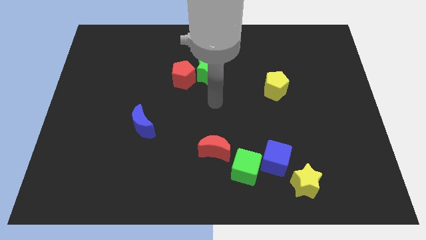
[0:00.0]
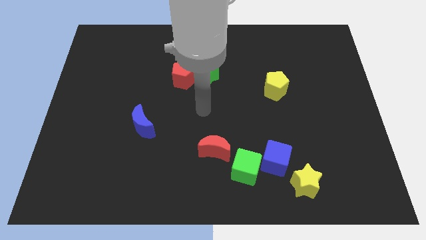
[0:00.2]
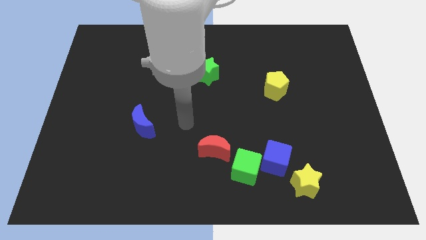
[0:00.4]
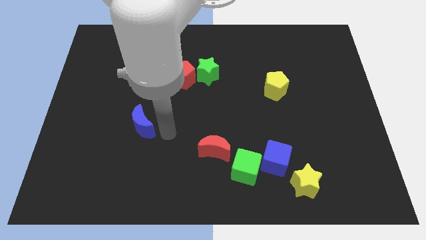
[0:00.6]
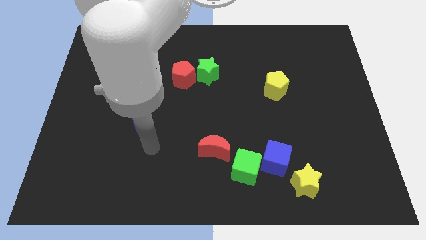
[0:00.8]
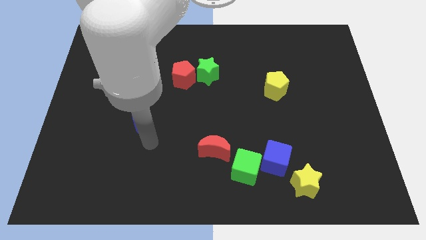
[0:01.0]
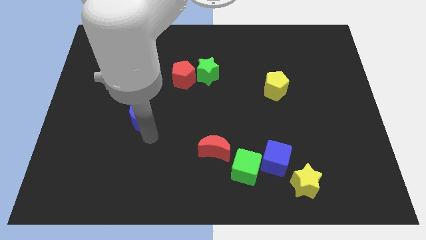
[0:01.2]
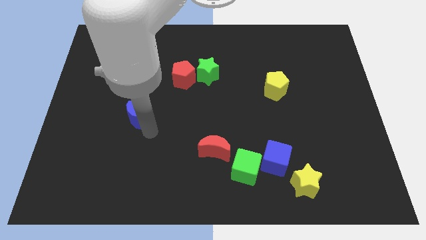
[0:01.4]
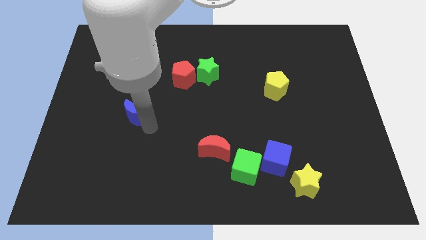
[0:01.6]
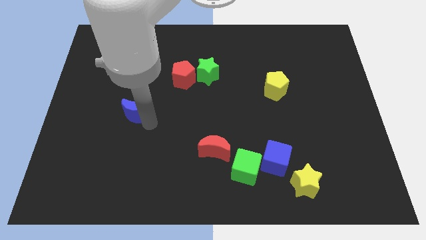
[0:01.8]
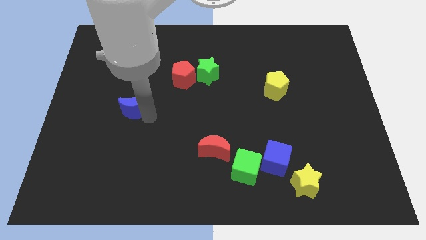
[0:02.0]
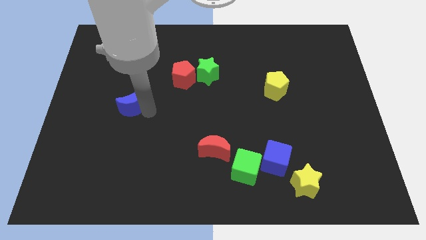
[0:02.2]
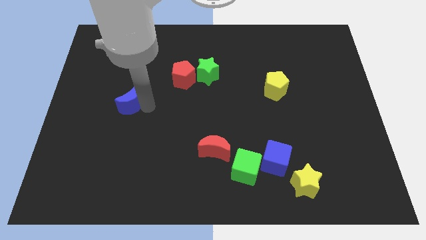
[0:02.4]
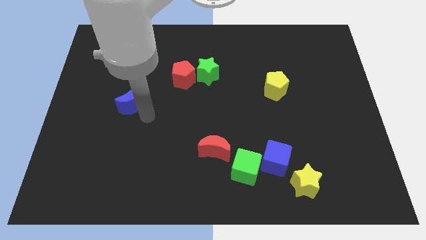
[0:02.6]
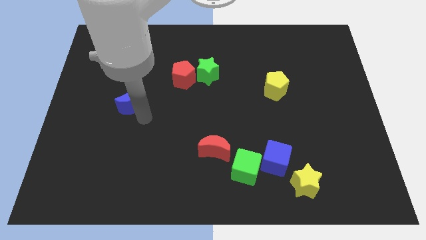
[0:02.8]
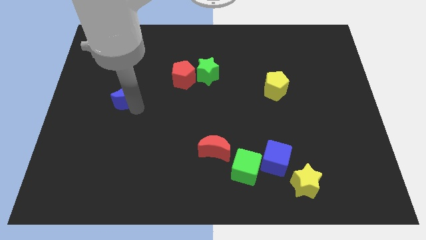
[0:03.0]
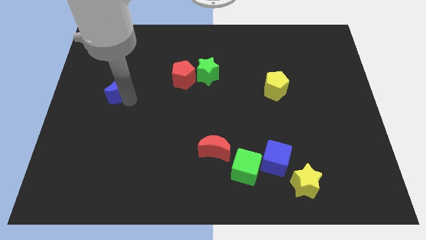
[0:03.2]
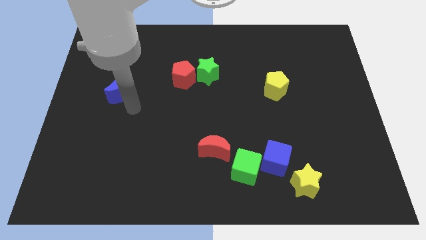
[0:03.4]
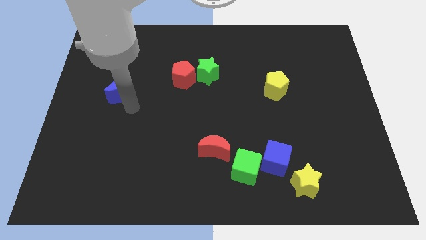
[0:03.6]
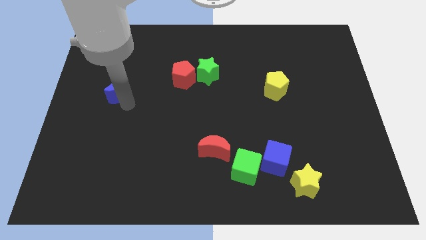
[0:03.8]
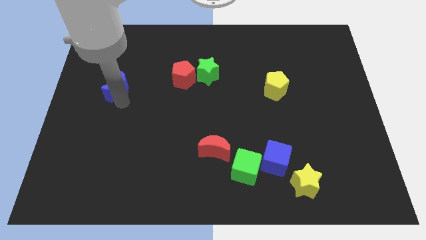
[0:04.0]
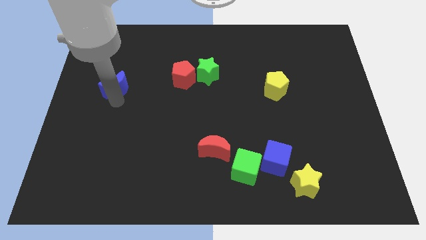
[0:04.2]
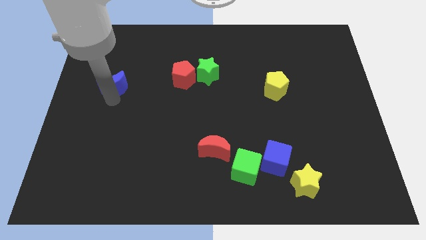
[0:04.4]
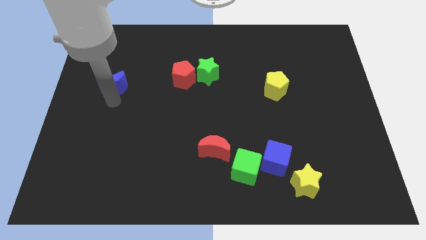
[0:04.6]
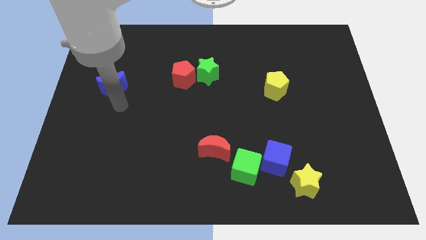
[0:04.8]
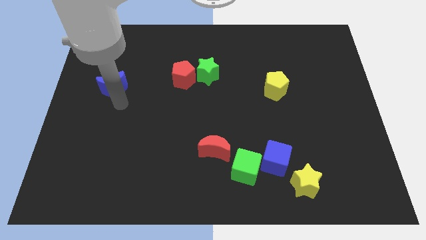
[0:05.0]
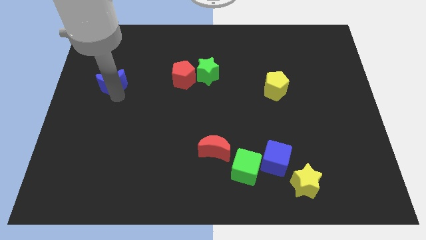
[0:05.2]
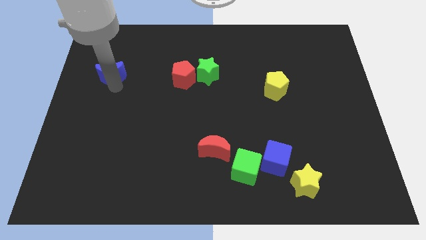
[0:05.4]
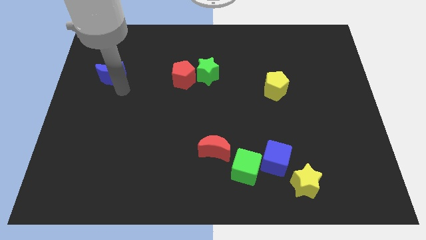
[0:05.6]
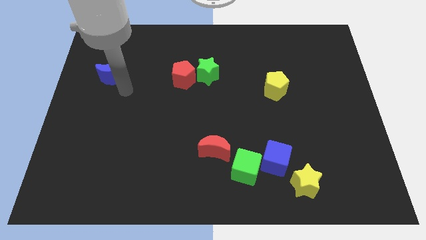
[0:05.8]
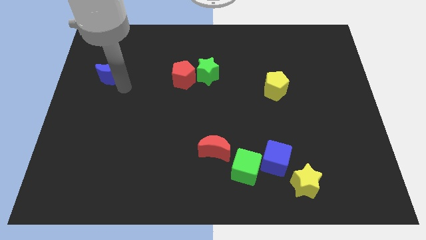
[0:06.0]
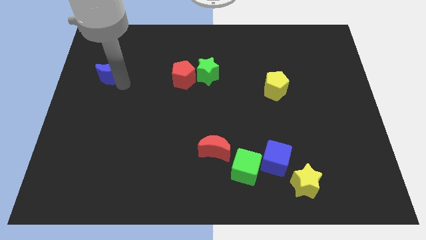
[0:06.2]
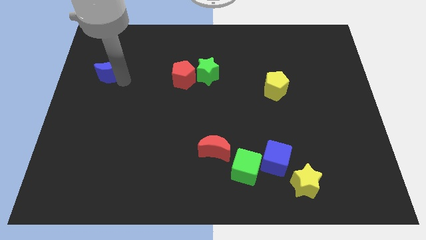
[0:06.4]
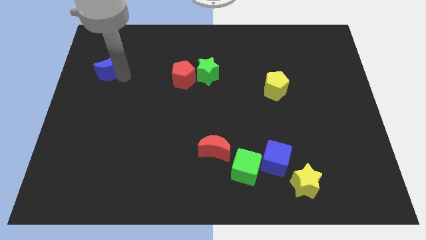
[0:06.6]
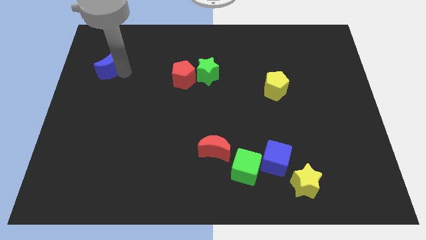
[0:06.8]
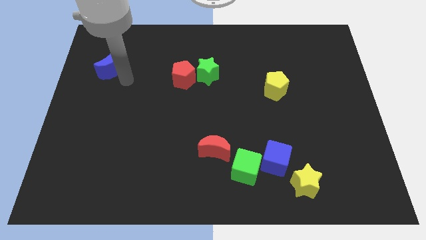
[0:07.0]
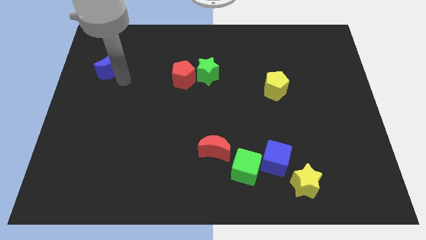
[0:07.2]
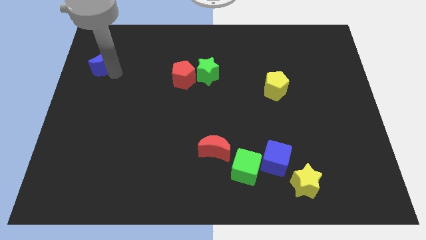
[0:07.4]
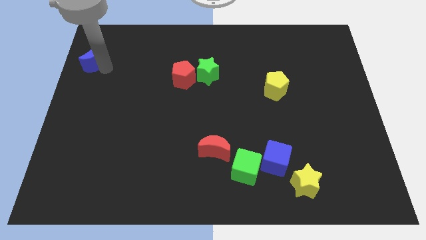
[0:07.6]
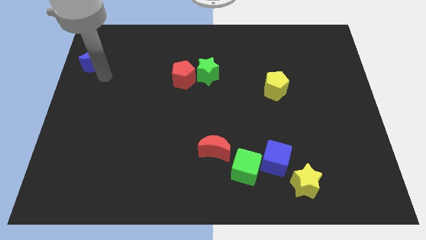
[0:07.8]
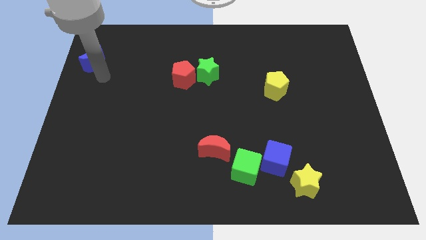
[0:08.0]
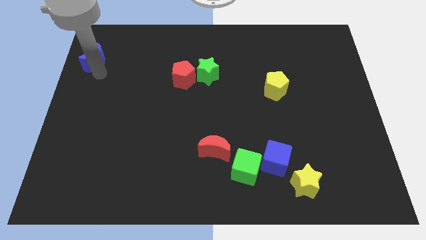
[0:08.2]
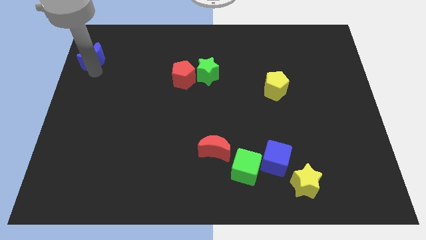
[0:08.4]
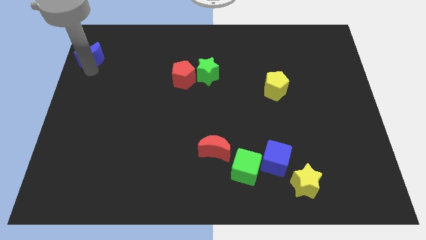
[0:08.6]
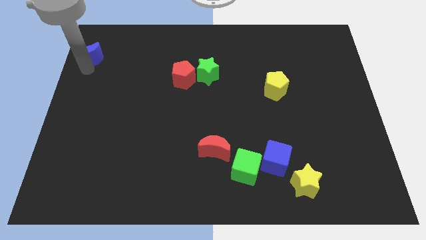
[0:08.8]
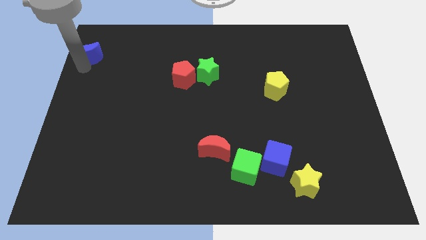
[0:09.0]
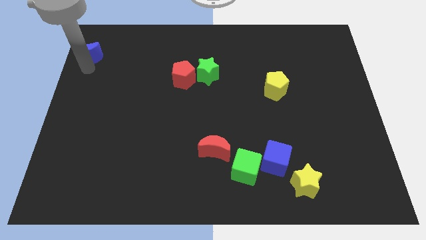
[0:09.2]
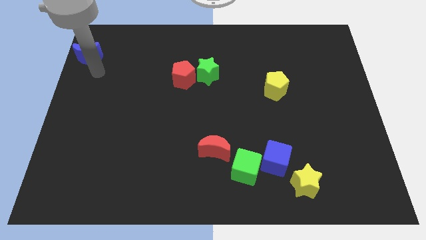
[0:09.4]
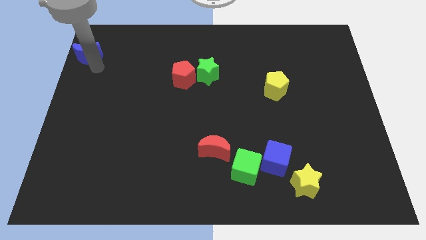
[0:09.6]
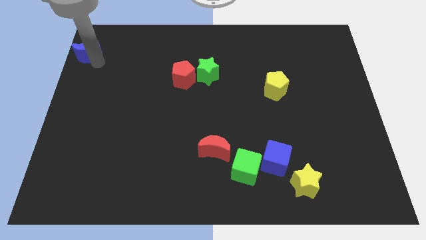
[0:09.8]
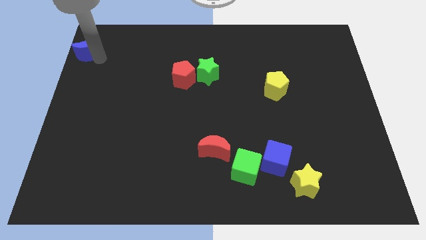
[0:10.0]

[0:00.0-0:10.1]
put the blue moon to the top left corner
